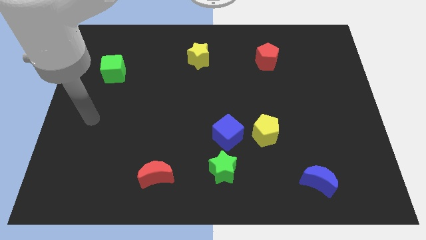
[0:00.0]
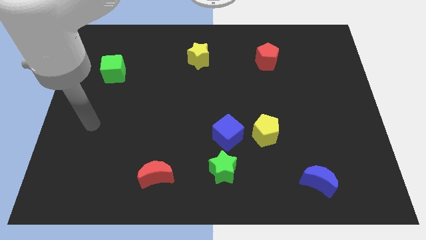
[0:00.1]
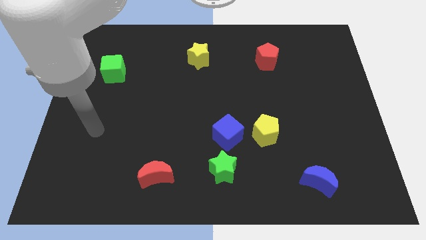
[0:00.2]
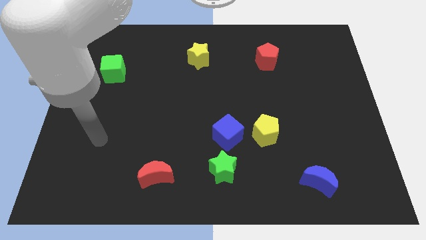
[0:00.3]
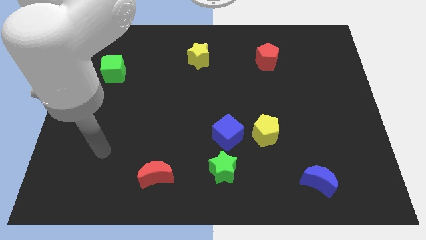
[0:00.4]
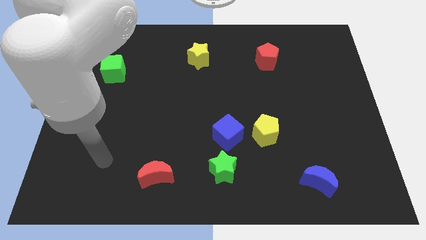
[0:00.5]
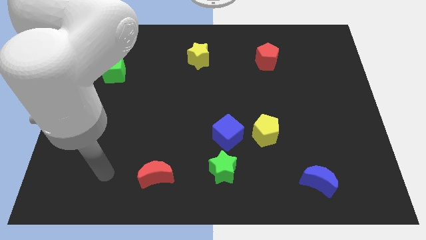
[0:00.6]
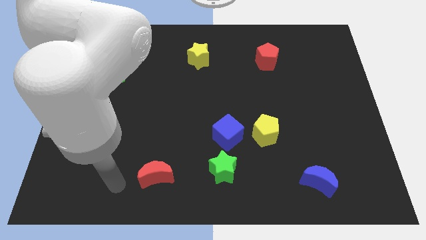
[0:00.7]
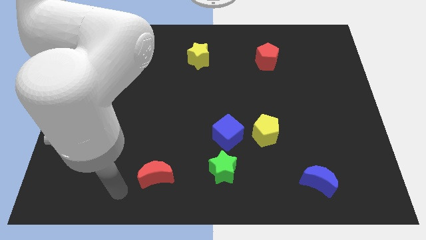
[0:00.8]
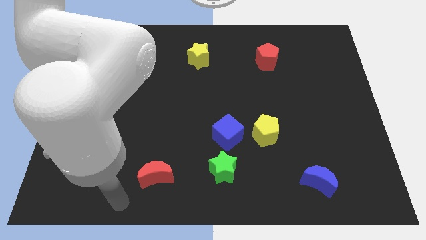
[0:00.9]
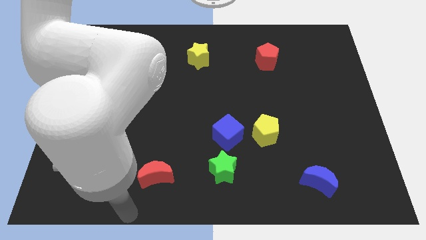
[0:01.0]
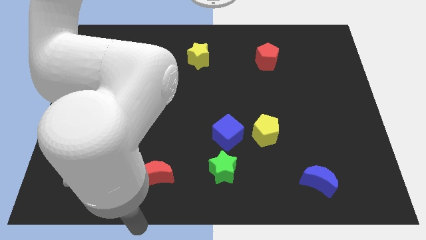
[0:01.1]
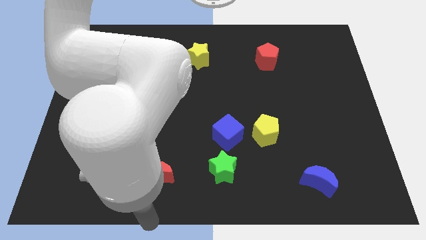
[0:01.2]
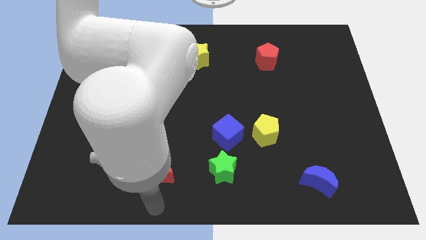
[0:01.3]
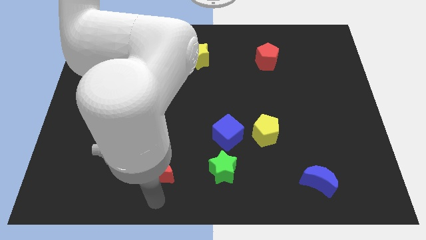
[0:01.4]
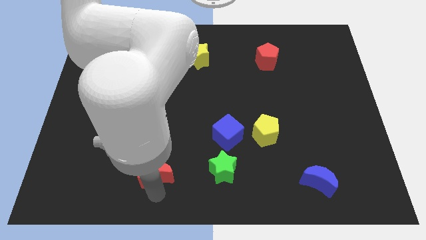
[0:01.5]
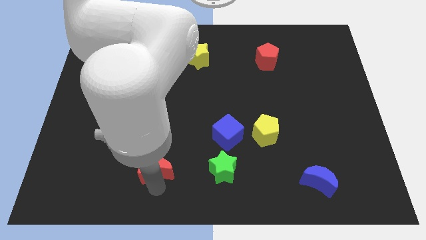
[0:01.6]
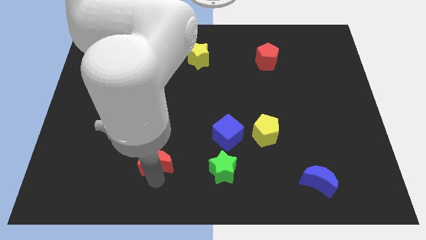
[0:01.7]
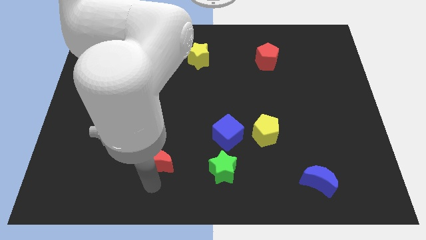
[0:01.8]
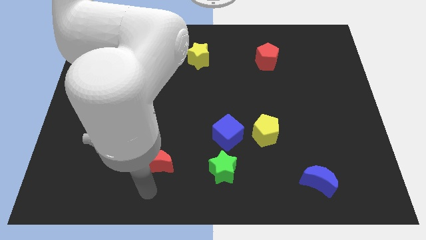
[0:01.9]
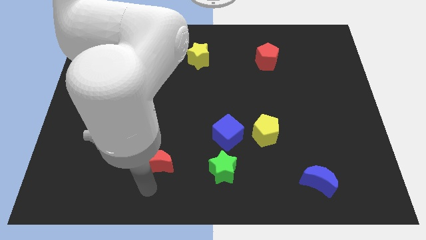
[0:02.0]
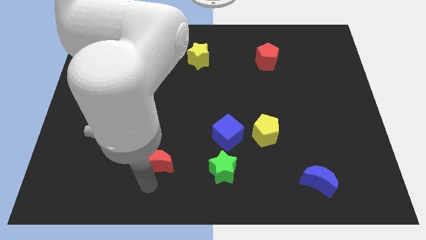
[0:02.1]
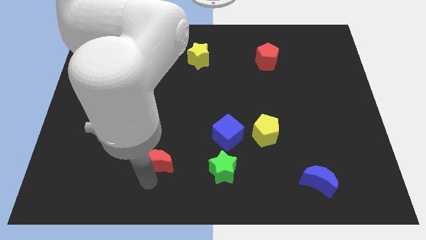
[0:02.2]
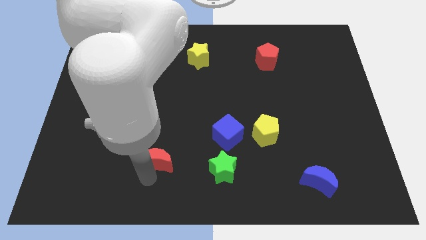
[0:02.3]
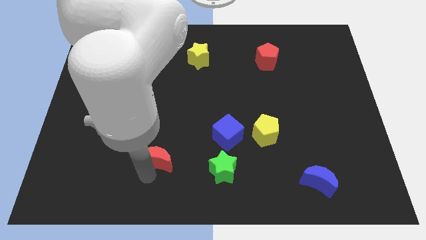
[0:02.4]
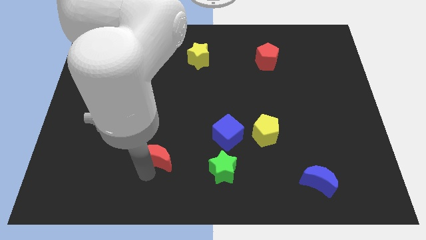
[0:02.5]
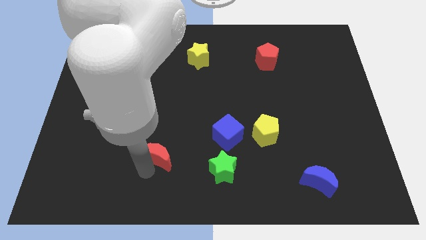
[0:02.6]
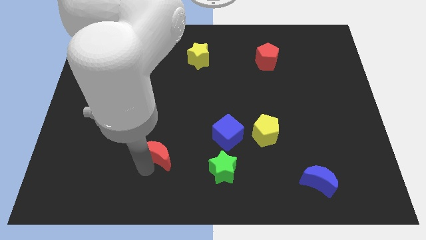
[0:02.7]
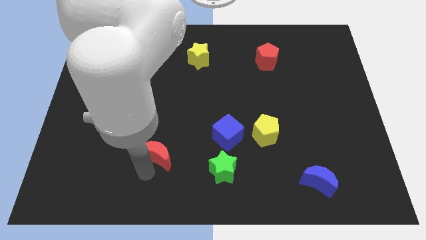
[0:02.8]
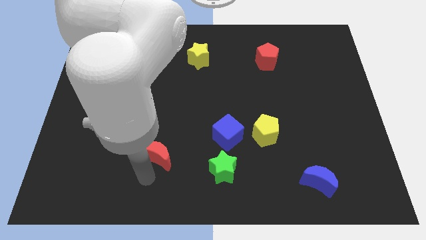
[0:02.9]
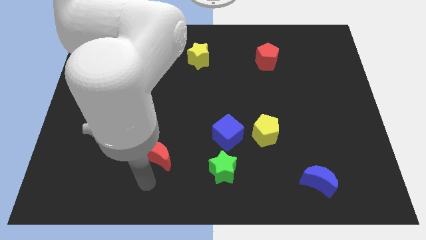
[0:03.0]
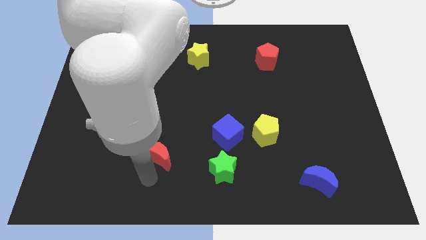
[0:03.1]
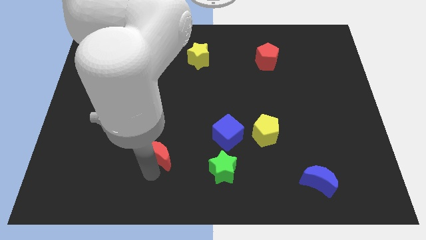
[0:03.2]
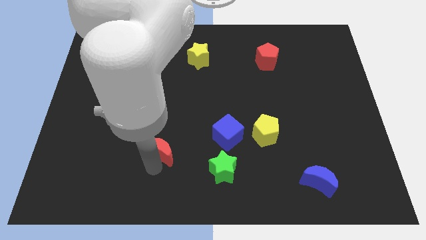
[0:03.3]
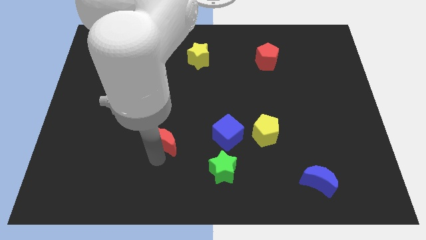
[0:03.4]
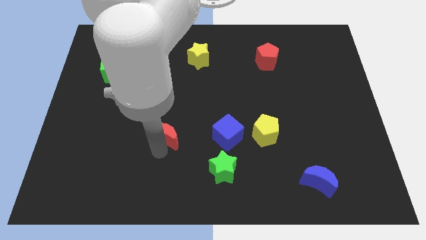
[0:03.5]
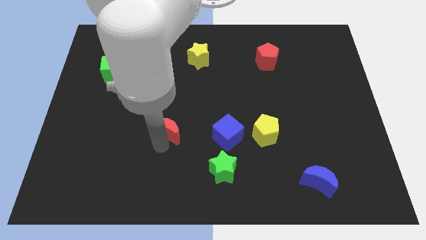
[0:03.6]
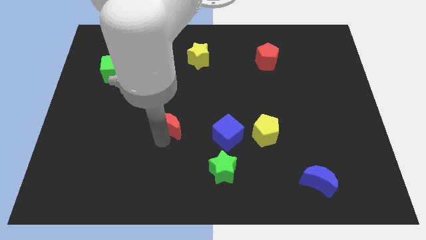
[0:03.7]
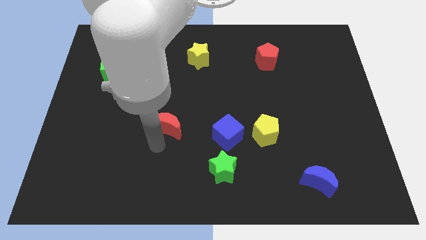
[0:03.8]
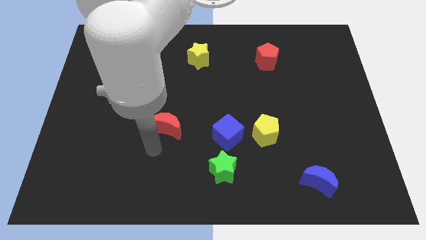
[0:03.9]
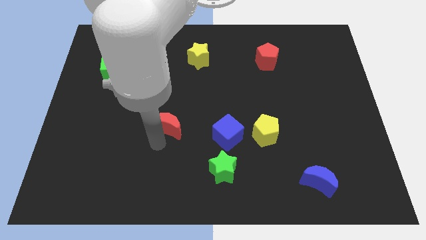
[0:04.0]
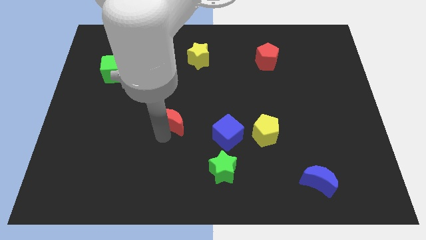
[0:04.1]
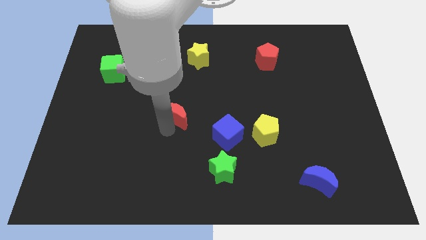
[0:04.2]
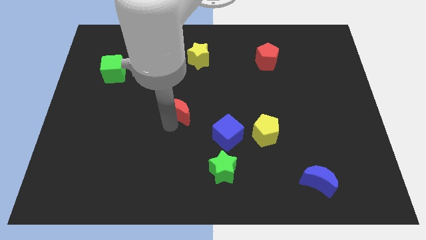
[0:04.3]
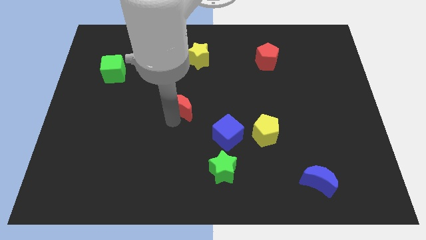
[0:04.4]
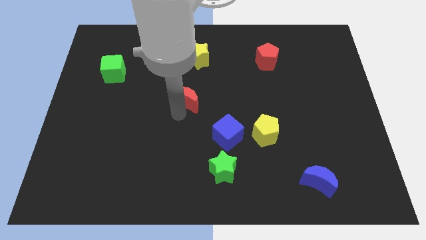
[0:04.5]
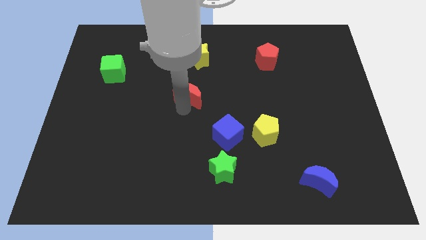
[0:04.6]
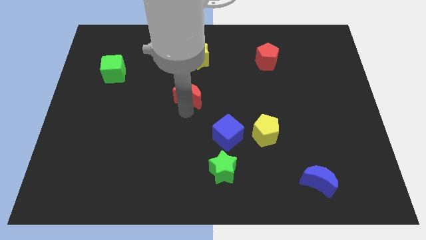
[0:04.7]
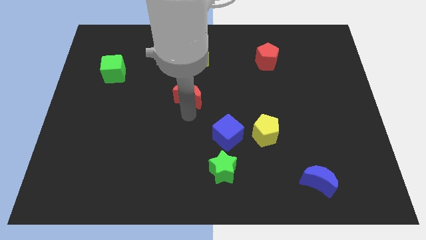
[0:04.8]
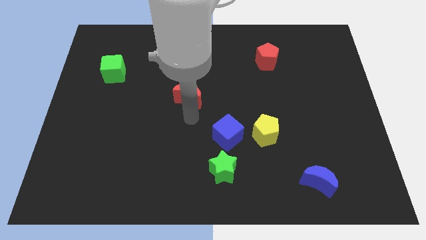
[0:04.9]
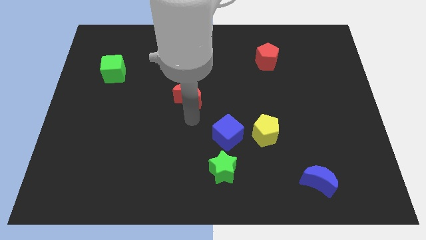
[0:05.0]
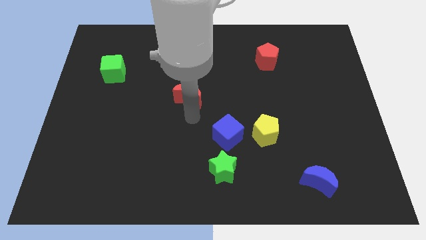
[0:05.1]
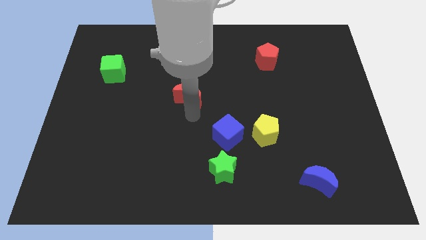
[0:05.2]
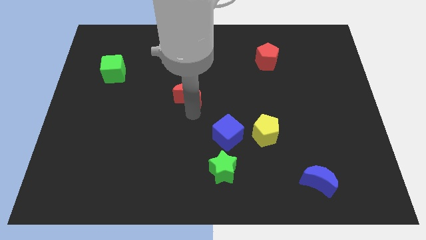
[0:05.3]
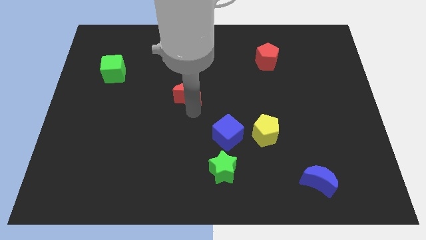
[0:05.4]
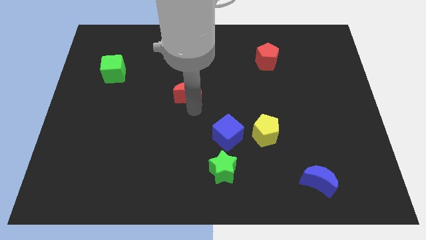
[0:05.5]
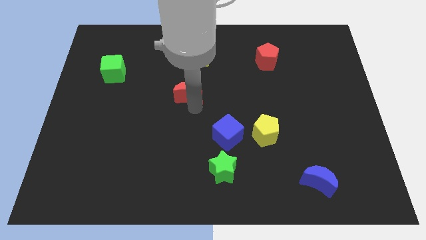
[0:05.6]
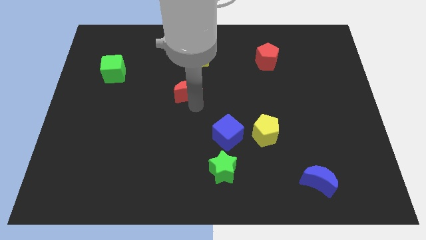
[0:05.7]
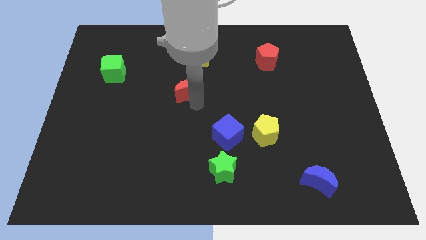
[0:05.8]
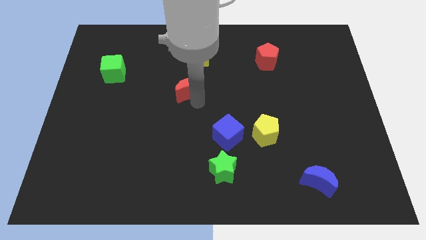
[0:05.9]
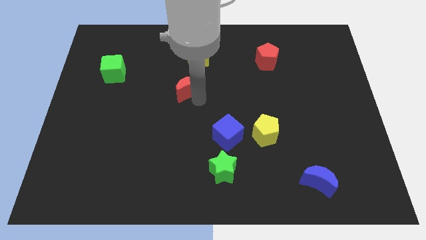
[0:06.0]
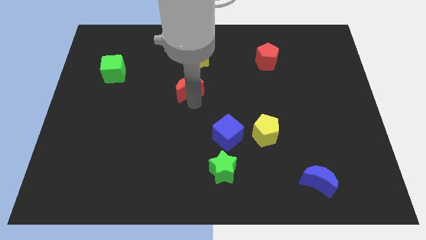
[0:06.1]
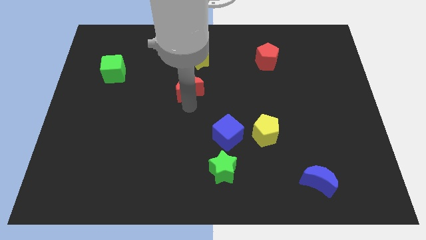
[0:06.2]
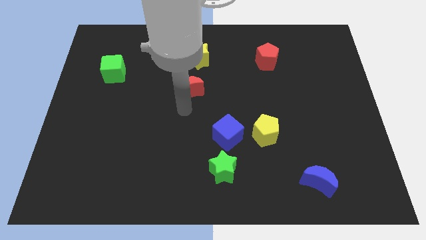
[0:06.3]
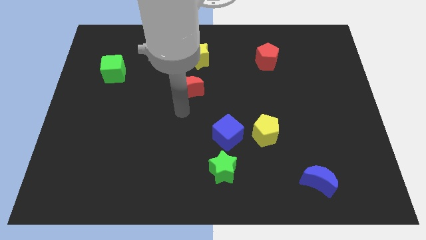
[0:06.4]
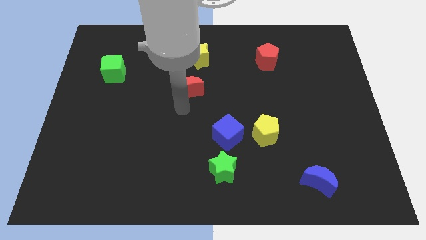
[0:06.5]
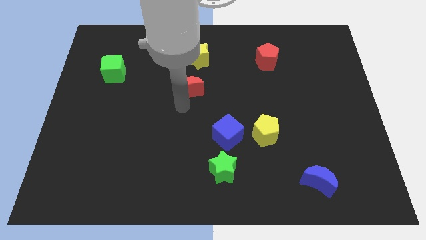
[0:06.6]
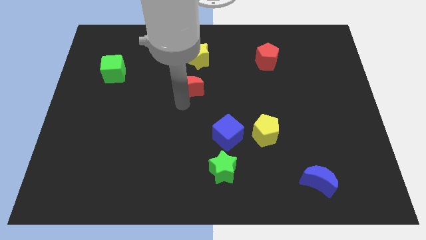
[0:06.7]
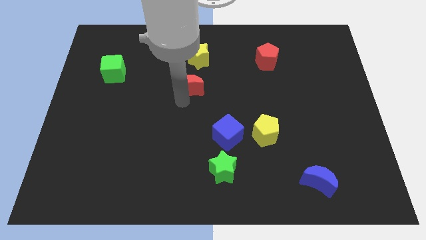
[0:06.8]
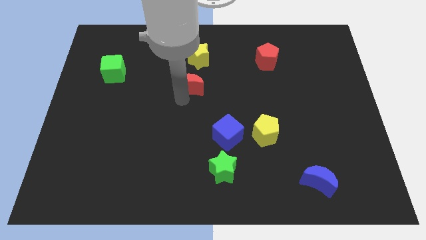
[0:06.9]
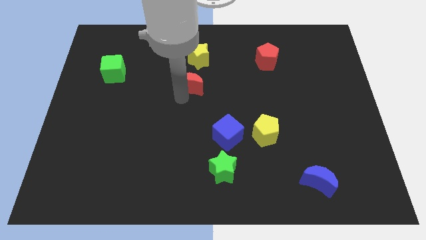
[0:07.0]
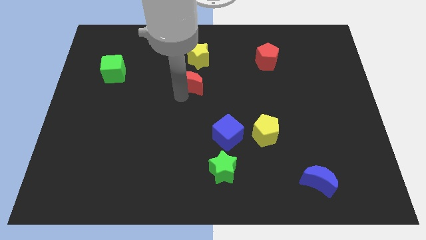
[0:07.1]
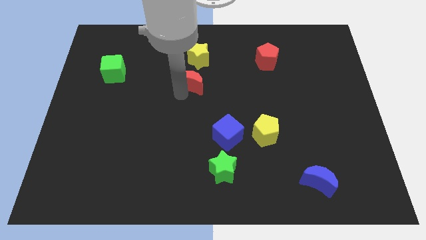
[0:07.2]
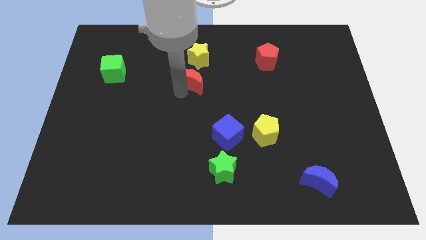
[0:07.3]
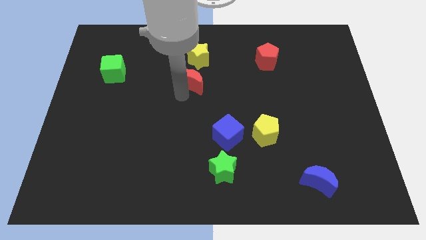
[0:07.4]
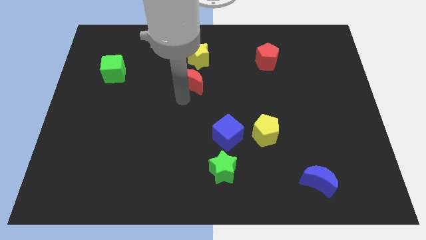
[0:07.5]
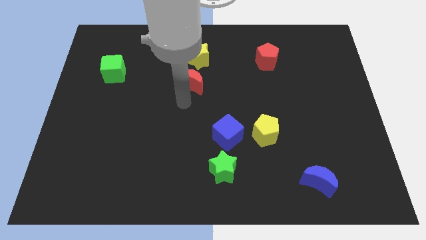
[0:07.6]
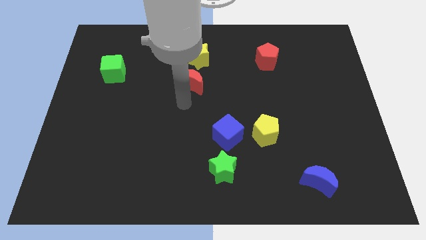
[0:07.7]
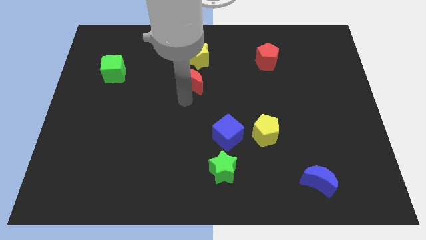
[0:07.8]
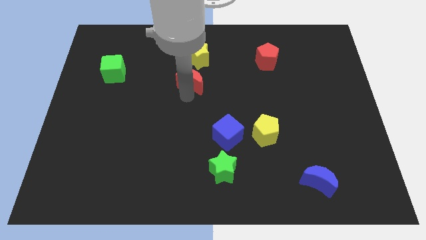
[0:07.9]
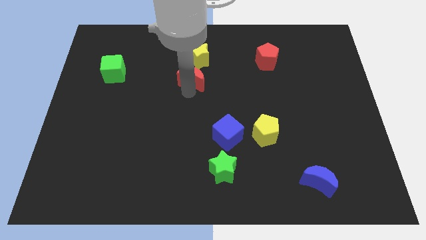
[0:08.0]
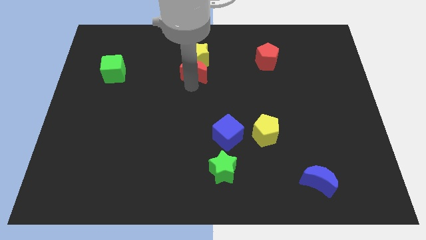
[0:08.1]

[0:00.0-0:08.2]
push the red moon next to the yellow star
